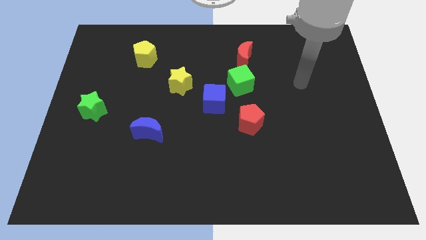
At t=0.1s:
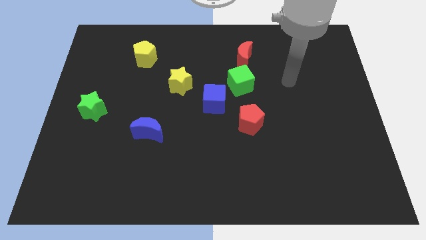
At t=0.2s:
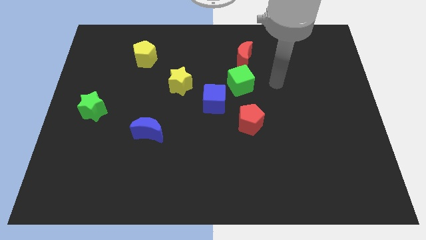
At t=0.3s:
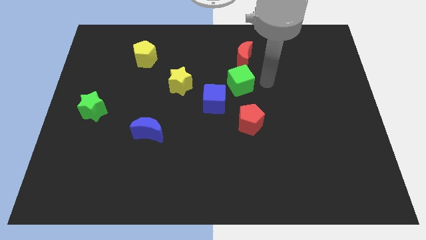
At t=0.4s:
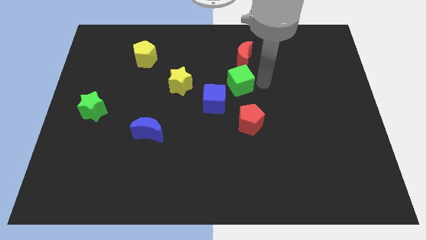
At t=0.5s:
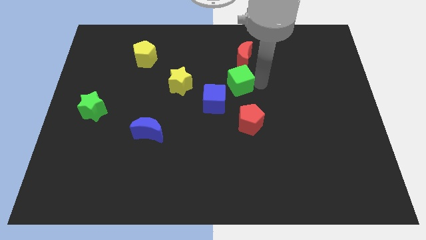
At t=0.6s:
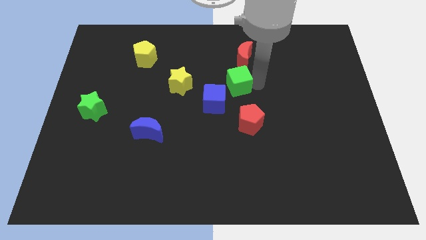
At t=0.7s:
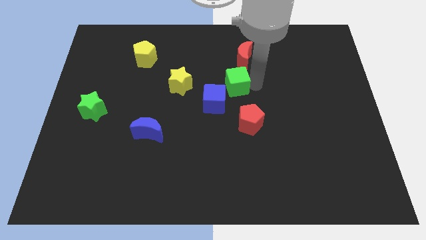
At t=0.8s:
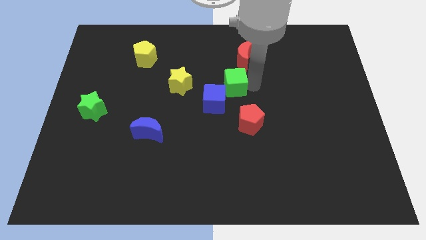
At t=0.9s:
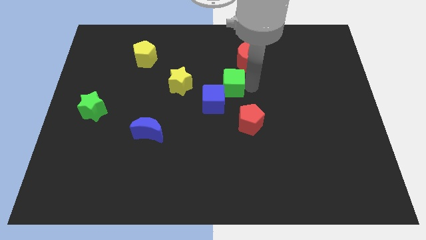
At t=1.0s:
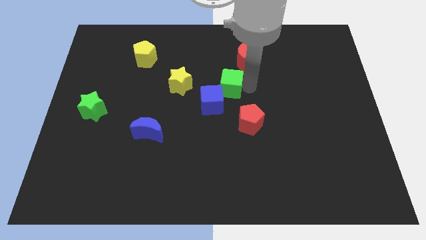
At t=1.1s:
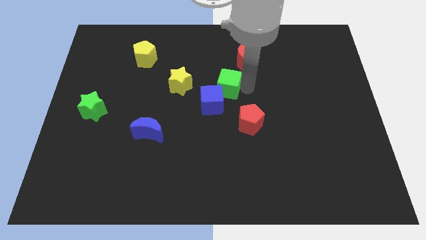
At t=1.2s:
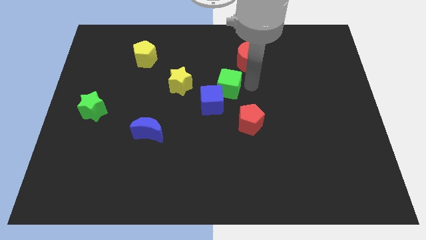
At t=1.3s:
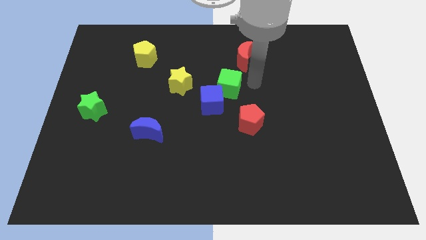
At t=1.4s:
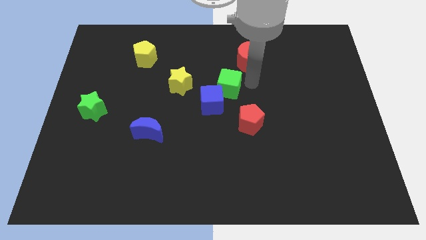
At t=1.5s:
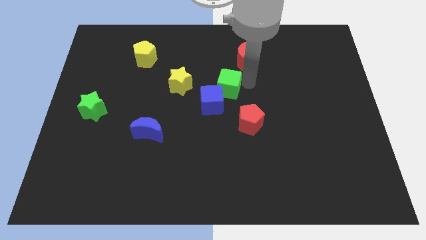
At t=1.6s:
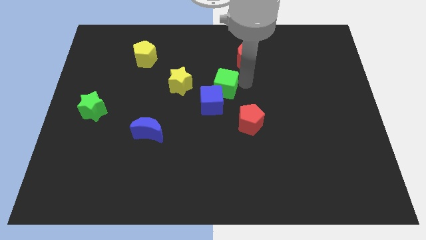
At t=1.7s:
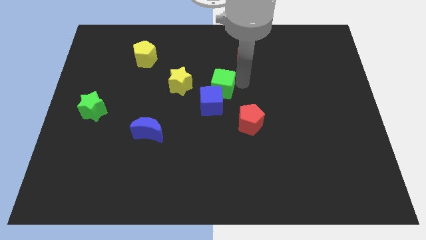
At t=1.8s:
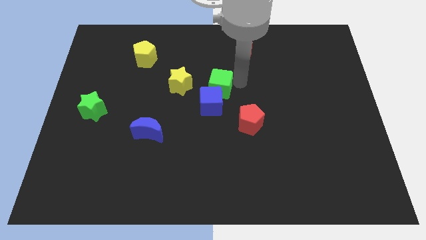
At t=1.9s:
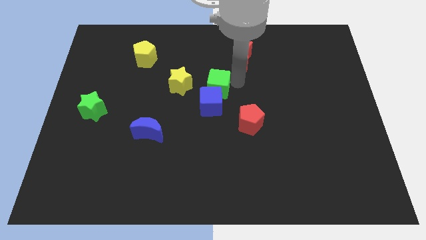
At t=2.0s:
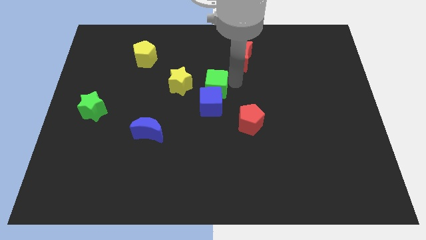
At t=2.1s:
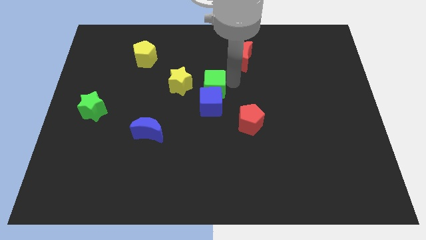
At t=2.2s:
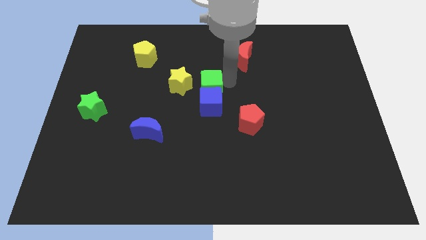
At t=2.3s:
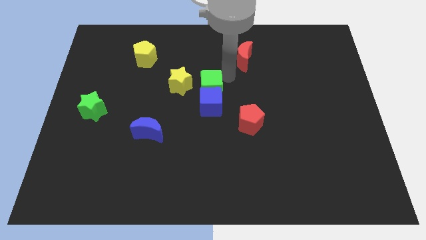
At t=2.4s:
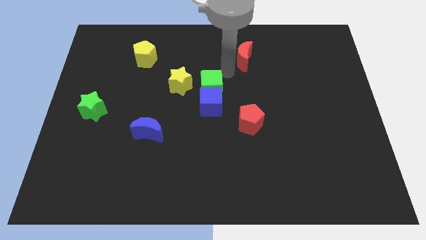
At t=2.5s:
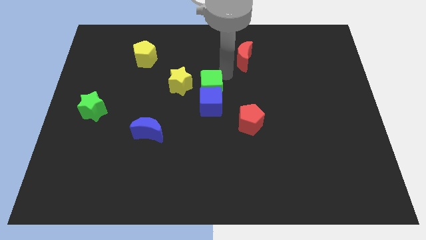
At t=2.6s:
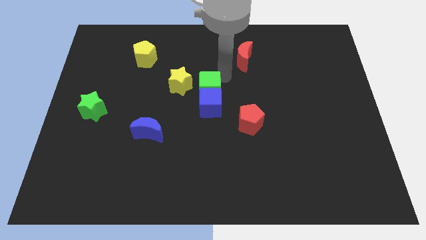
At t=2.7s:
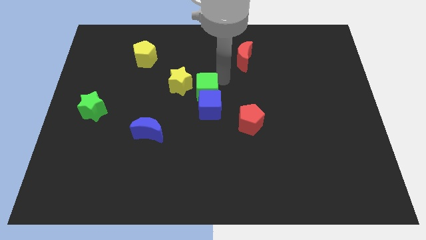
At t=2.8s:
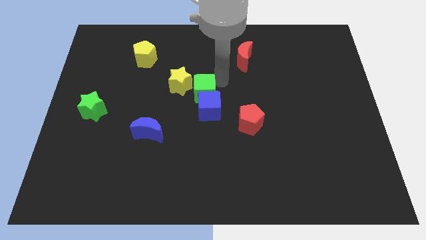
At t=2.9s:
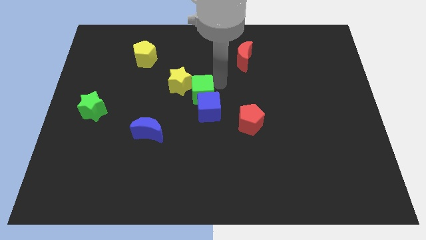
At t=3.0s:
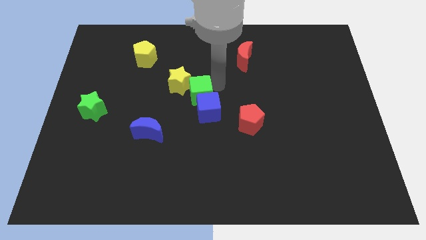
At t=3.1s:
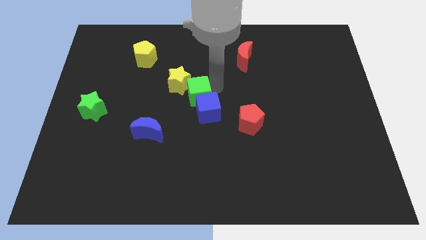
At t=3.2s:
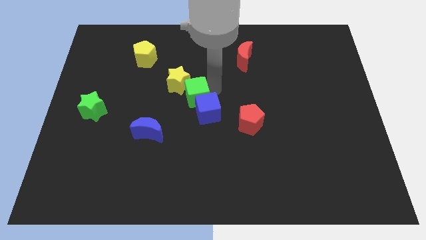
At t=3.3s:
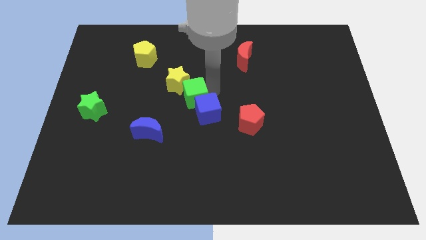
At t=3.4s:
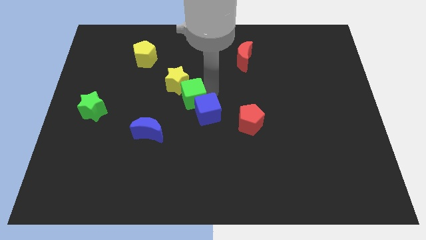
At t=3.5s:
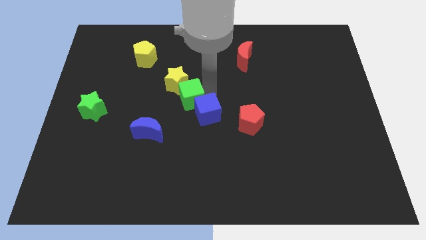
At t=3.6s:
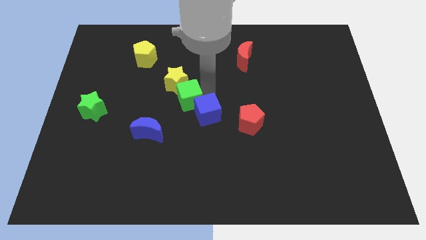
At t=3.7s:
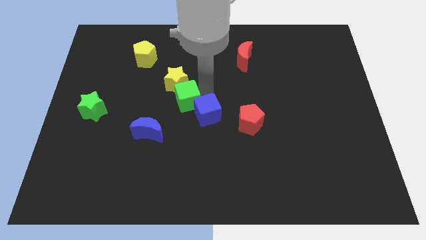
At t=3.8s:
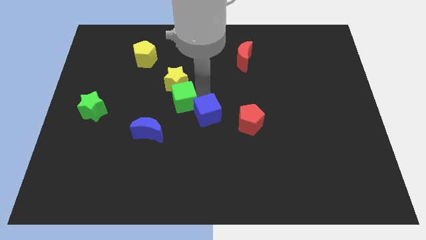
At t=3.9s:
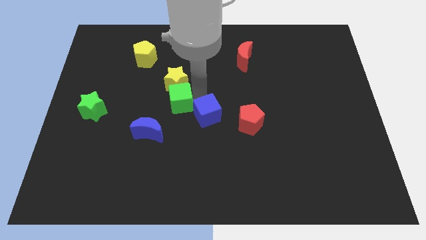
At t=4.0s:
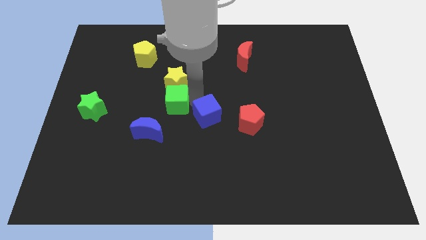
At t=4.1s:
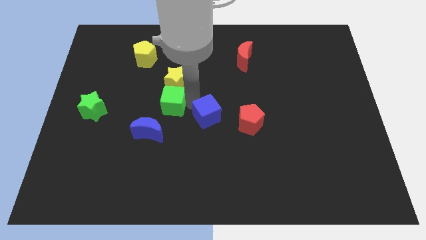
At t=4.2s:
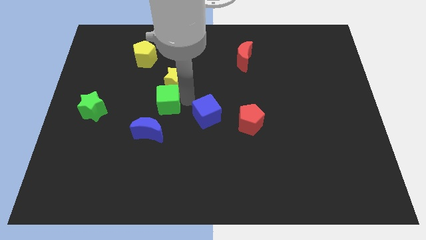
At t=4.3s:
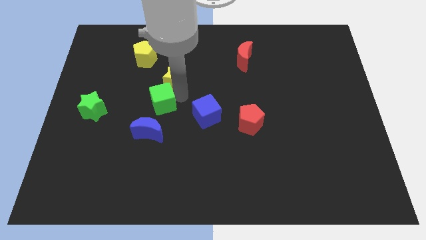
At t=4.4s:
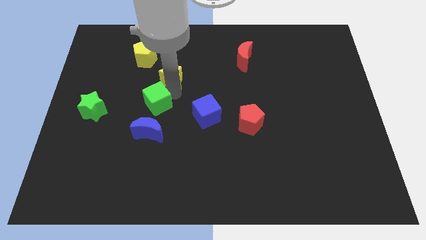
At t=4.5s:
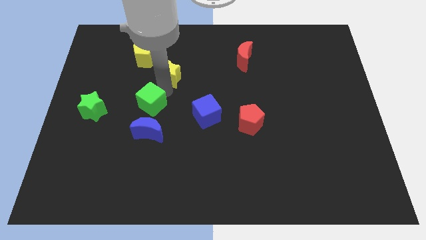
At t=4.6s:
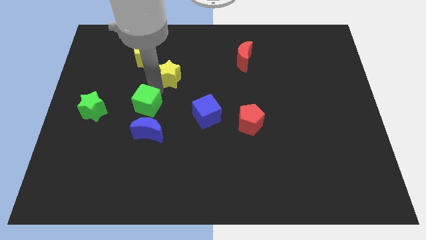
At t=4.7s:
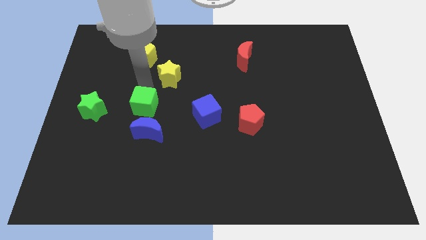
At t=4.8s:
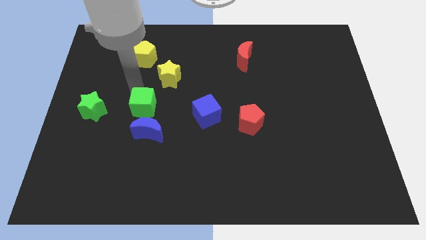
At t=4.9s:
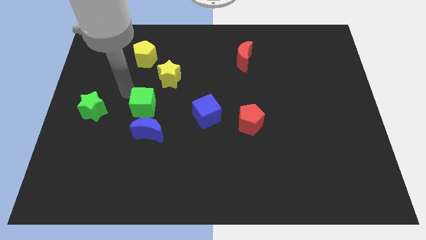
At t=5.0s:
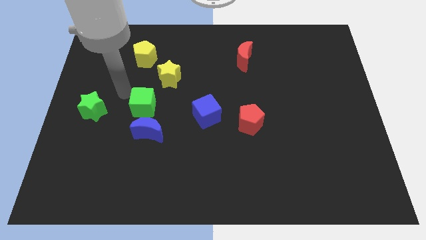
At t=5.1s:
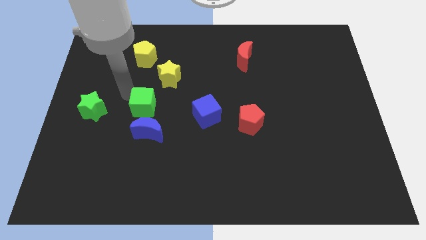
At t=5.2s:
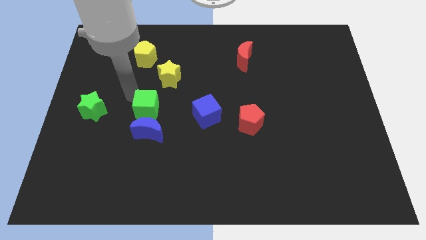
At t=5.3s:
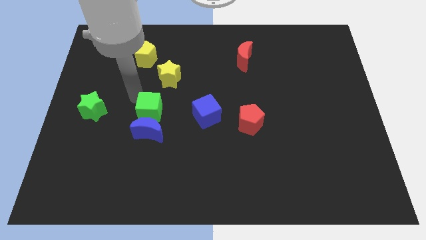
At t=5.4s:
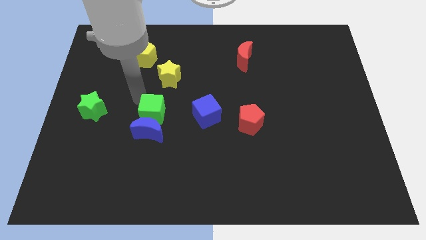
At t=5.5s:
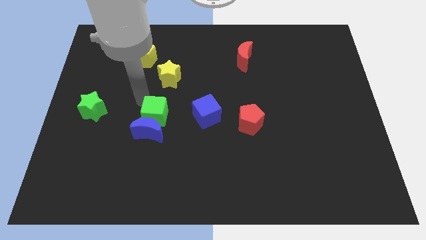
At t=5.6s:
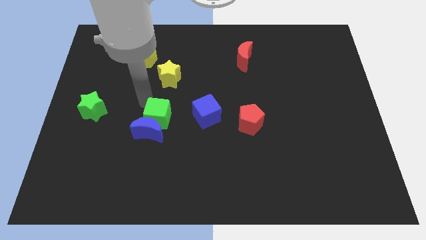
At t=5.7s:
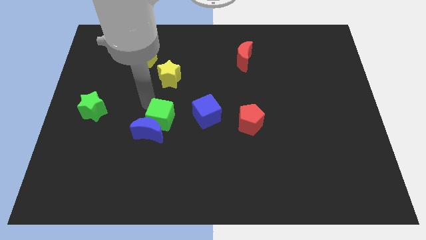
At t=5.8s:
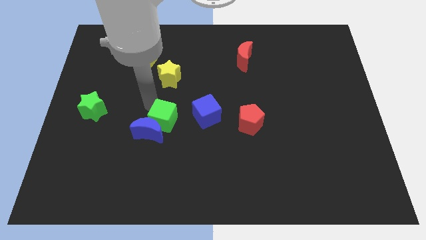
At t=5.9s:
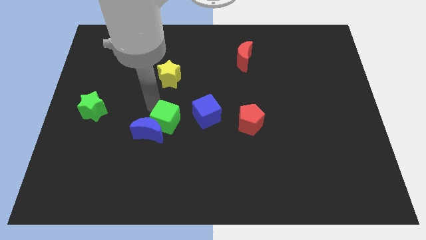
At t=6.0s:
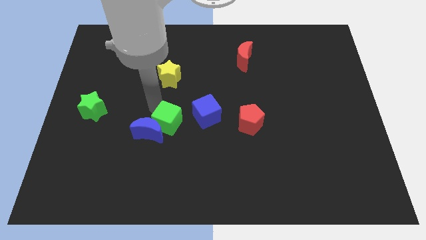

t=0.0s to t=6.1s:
slide the green cube down and left

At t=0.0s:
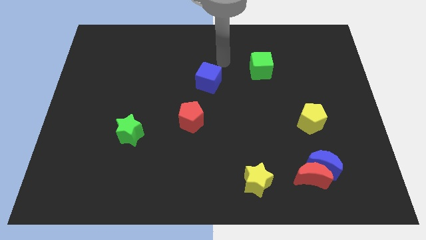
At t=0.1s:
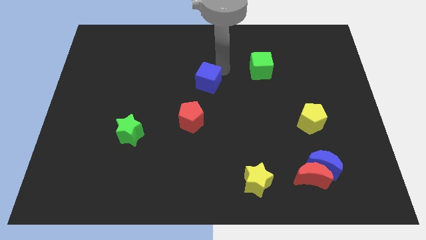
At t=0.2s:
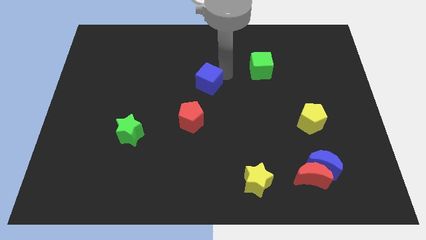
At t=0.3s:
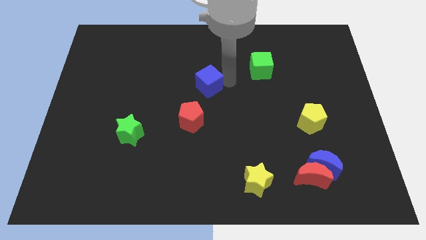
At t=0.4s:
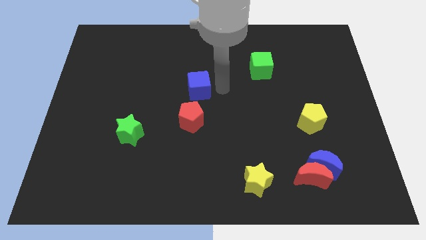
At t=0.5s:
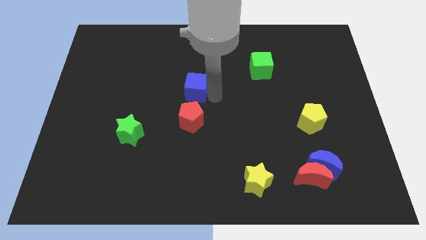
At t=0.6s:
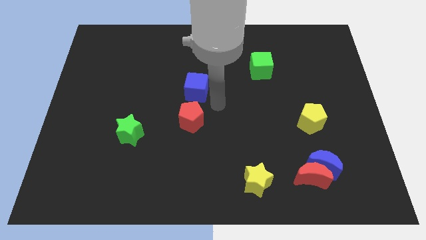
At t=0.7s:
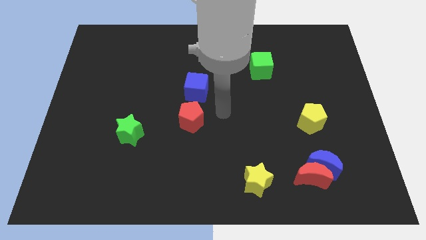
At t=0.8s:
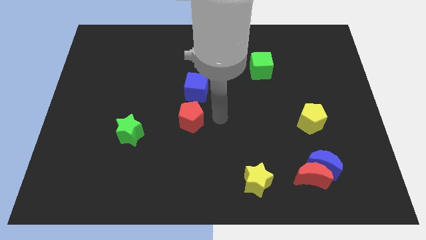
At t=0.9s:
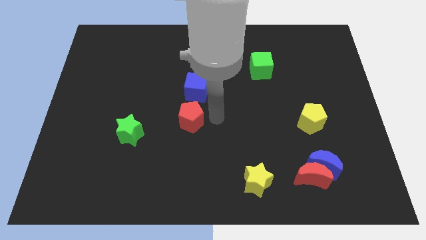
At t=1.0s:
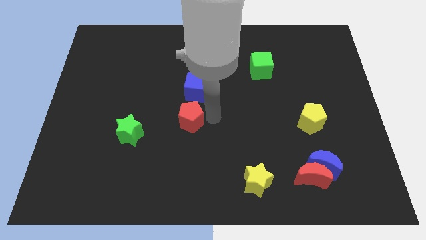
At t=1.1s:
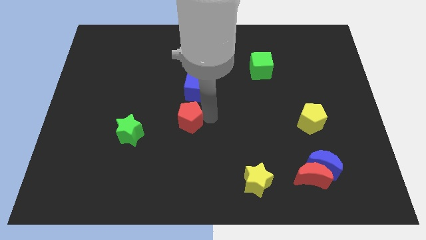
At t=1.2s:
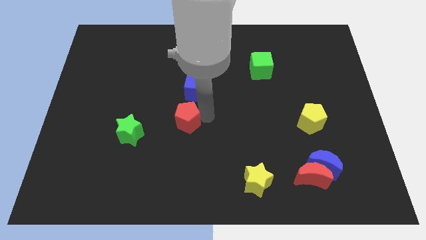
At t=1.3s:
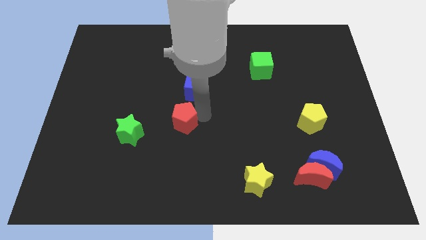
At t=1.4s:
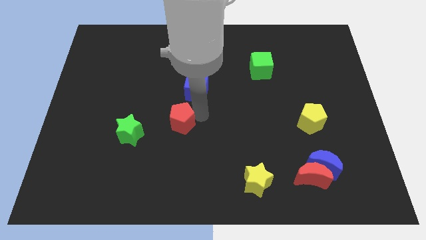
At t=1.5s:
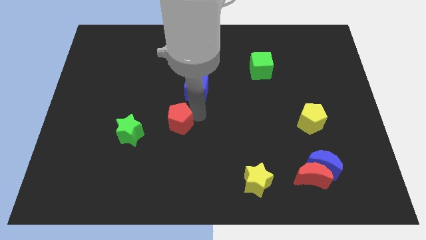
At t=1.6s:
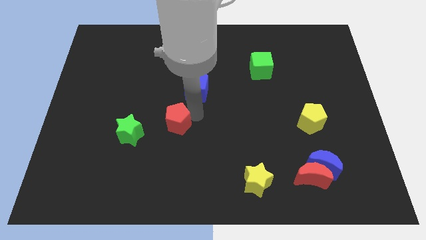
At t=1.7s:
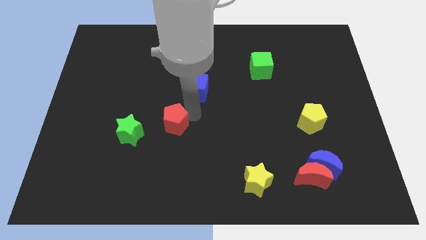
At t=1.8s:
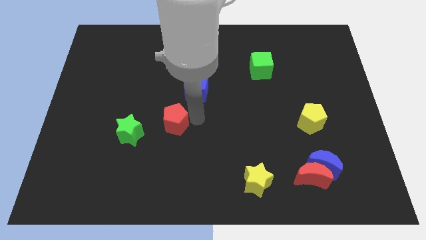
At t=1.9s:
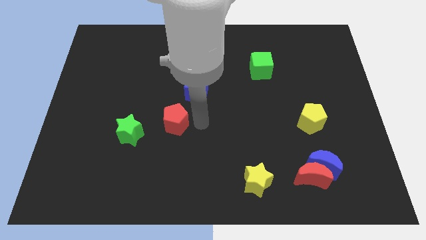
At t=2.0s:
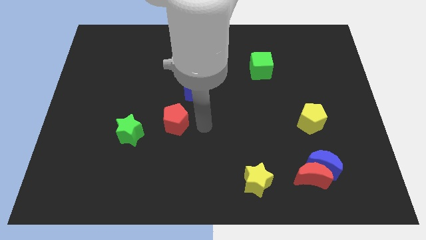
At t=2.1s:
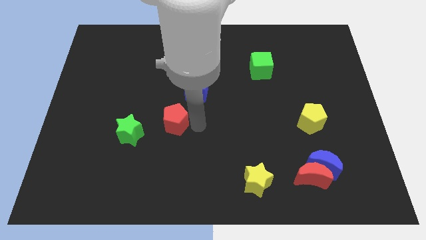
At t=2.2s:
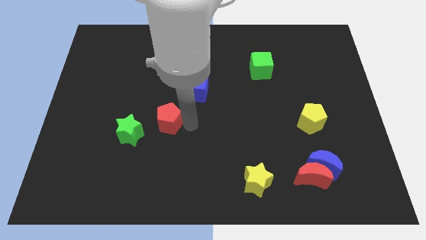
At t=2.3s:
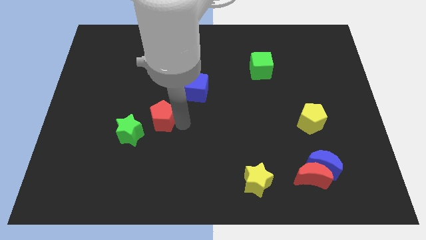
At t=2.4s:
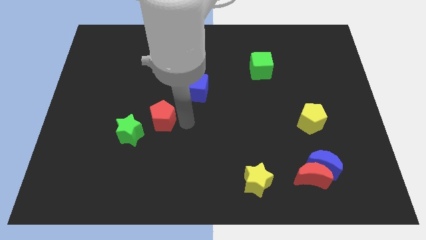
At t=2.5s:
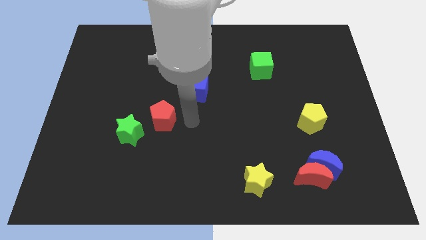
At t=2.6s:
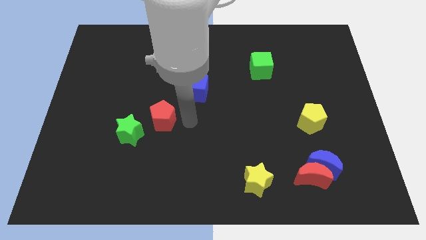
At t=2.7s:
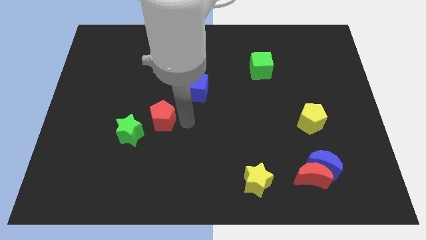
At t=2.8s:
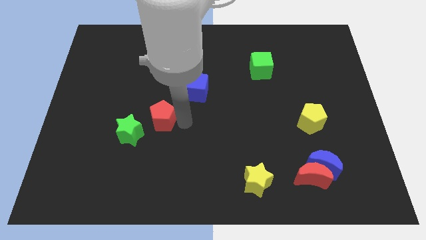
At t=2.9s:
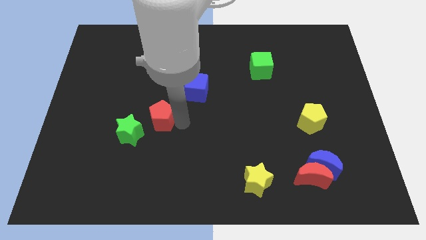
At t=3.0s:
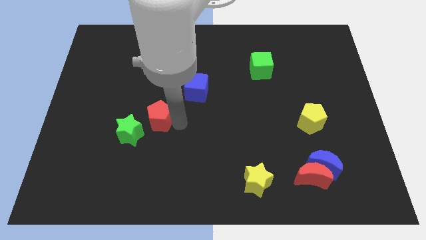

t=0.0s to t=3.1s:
push the red pentagon a bit to the left
